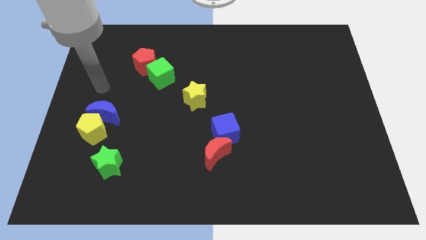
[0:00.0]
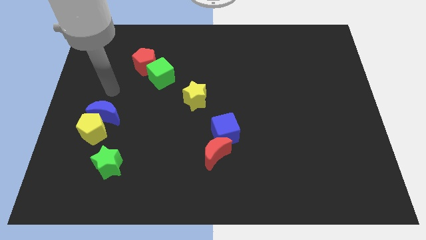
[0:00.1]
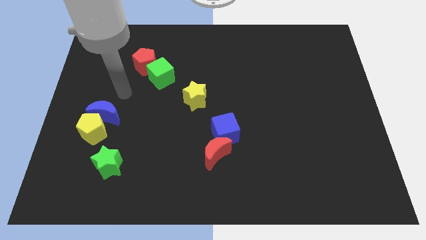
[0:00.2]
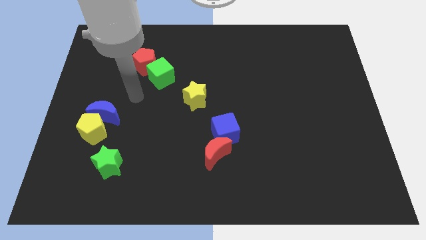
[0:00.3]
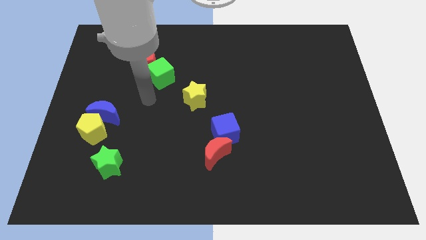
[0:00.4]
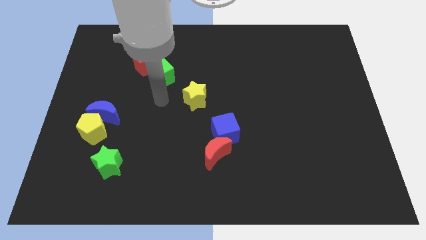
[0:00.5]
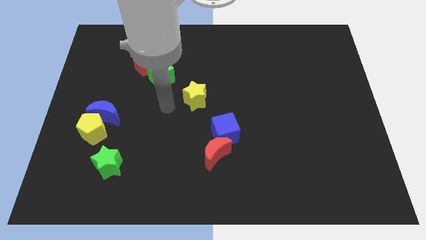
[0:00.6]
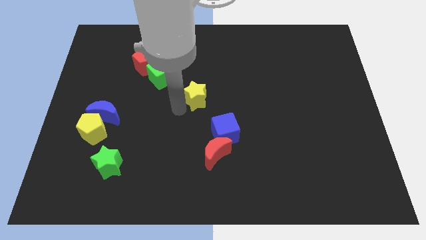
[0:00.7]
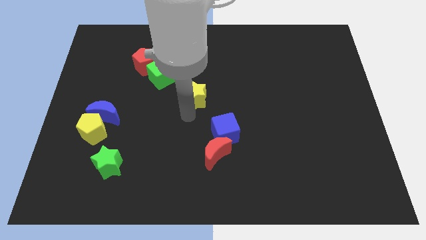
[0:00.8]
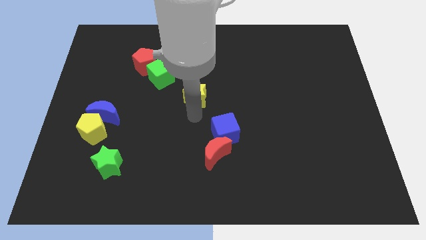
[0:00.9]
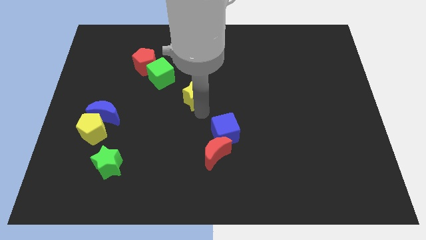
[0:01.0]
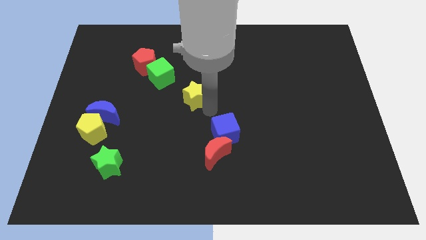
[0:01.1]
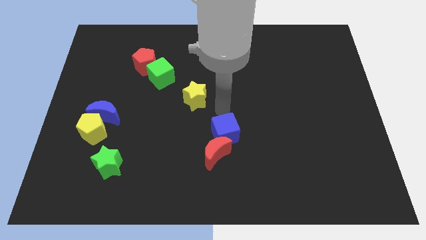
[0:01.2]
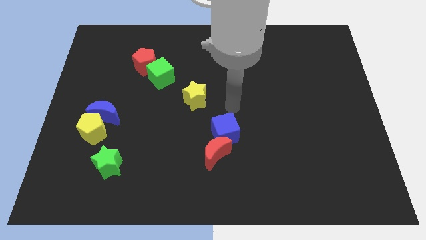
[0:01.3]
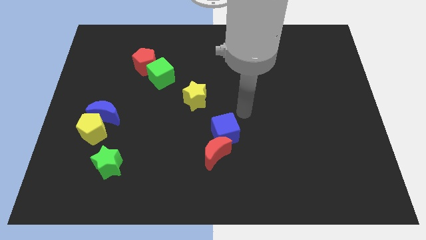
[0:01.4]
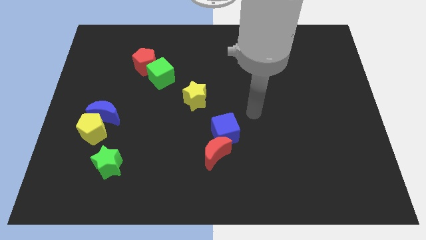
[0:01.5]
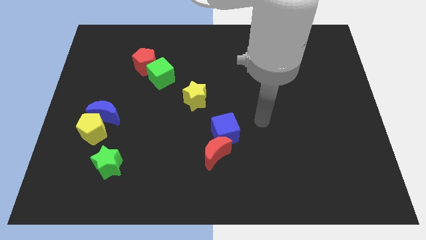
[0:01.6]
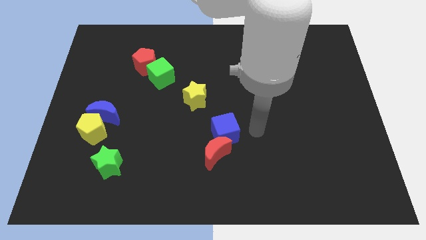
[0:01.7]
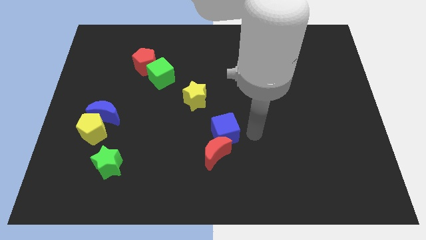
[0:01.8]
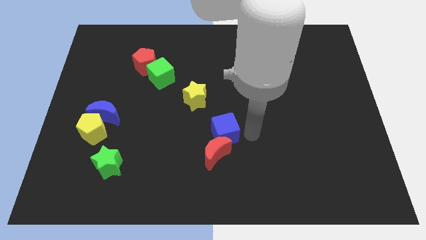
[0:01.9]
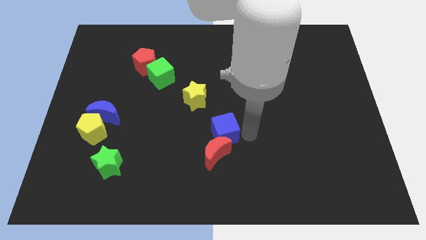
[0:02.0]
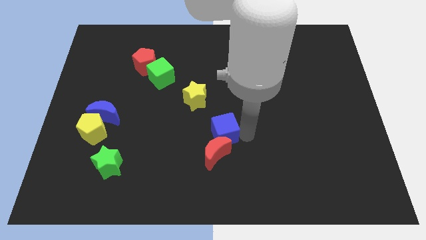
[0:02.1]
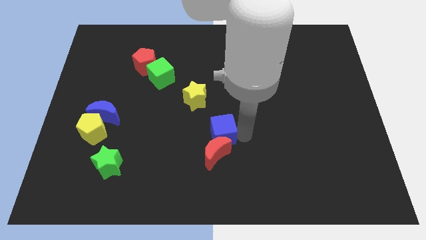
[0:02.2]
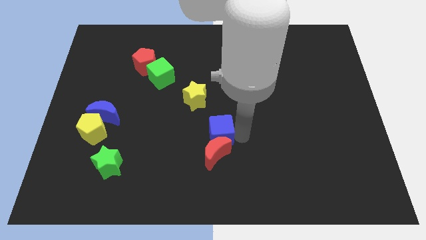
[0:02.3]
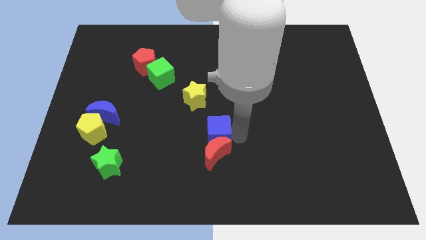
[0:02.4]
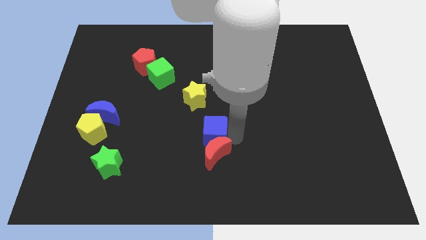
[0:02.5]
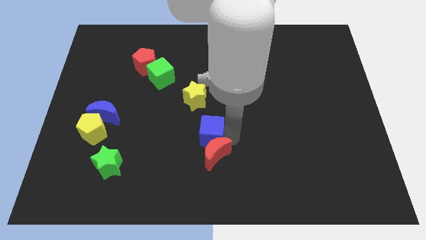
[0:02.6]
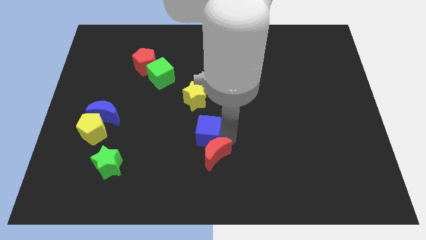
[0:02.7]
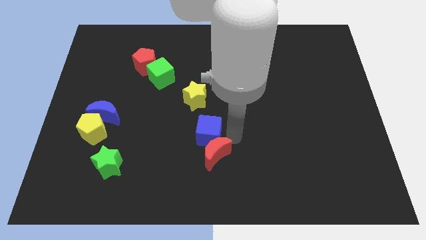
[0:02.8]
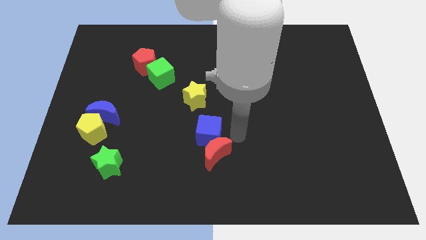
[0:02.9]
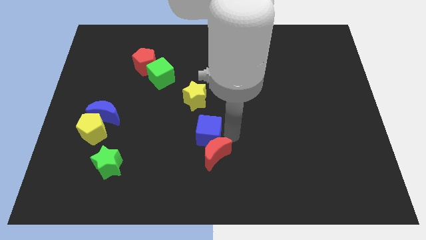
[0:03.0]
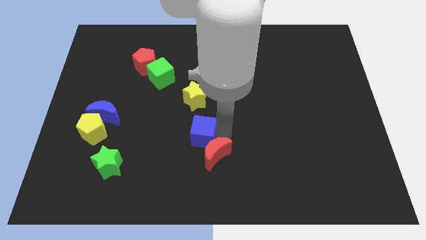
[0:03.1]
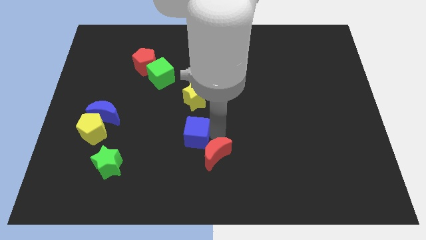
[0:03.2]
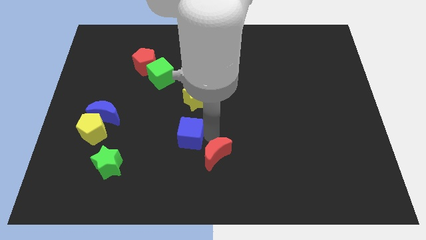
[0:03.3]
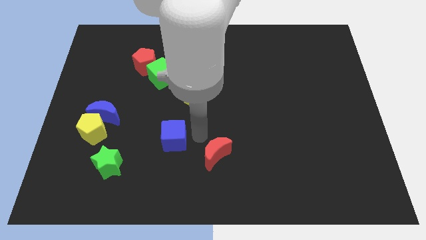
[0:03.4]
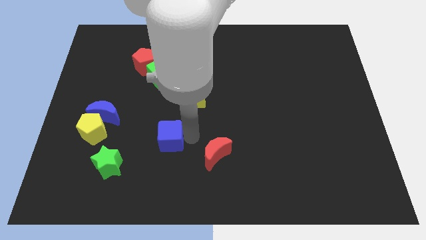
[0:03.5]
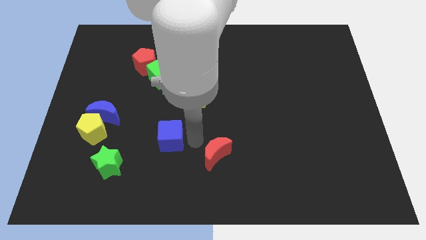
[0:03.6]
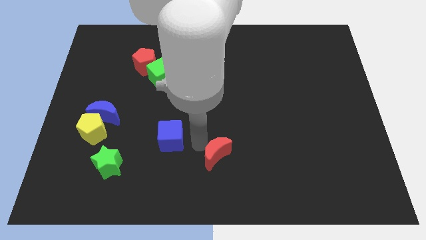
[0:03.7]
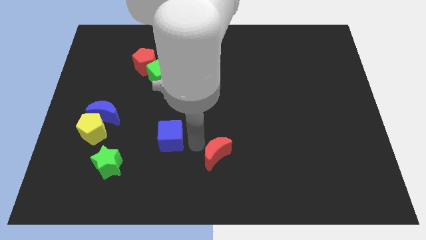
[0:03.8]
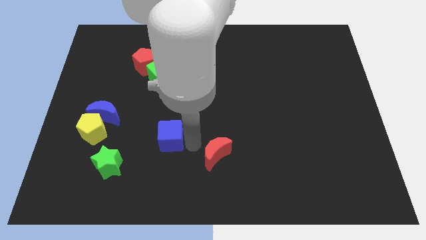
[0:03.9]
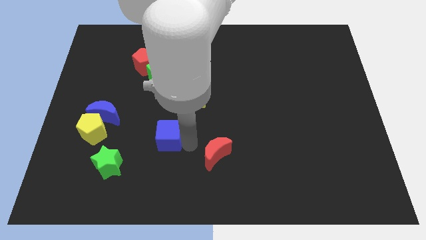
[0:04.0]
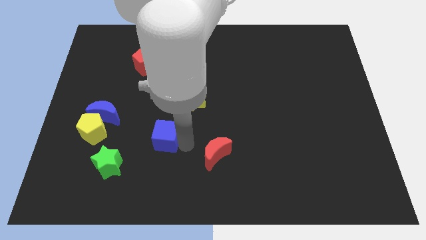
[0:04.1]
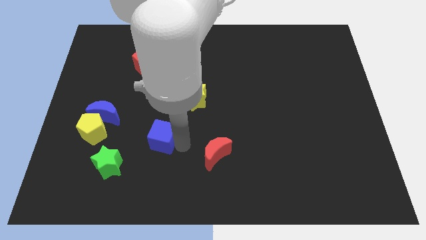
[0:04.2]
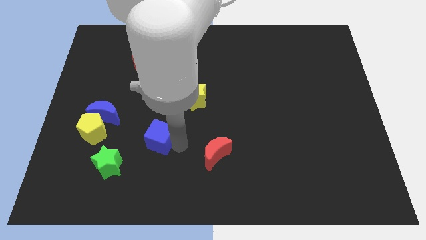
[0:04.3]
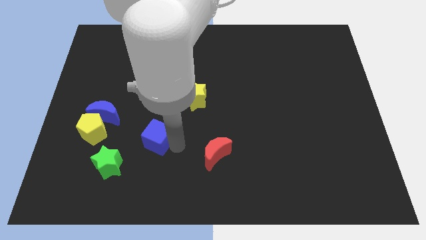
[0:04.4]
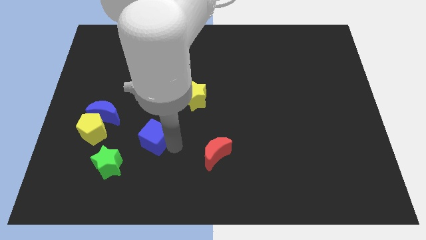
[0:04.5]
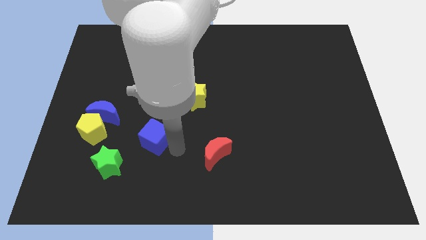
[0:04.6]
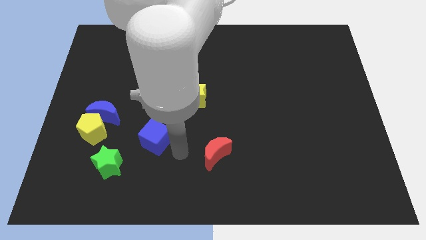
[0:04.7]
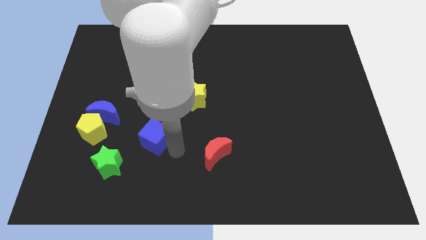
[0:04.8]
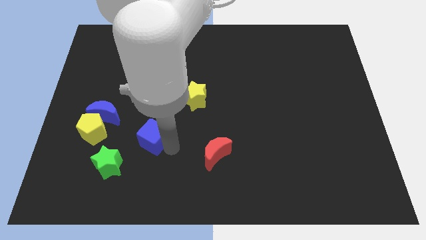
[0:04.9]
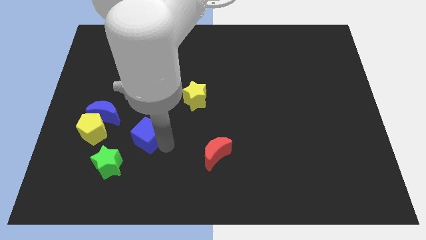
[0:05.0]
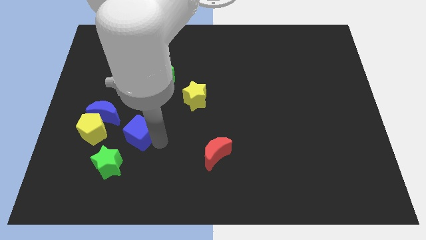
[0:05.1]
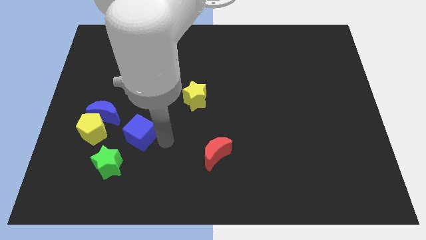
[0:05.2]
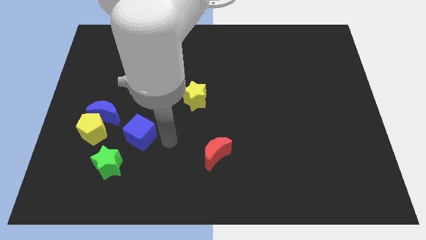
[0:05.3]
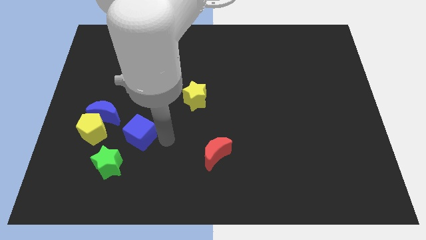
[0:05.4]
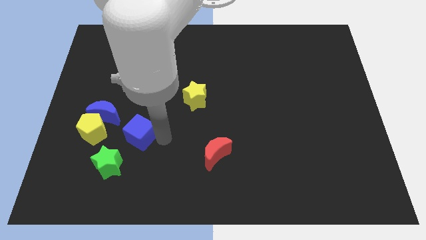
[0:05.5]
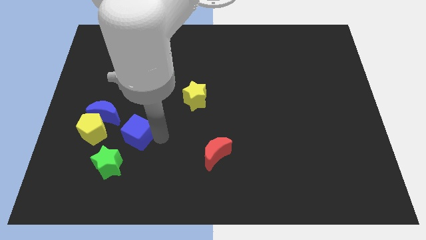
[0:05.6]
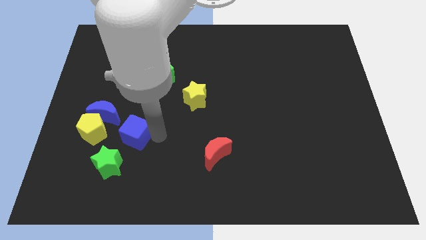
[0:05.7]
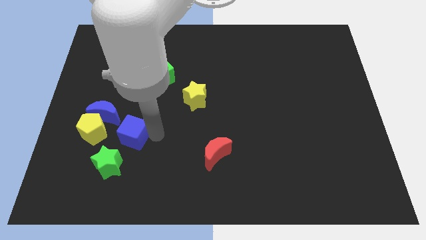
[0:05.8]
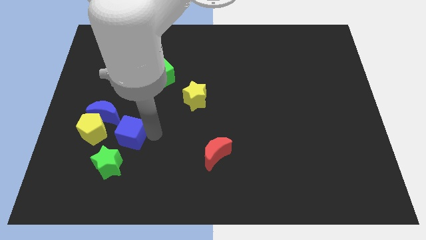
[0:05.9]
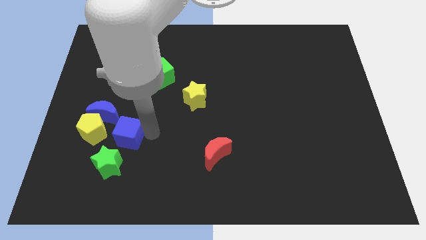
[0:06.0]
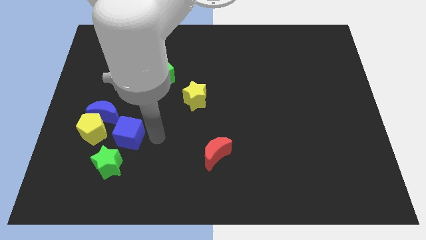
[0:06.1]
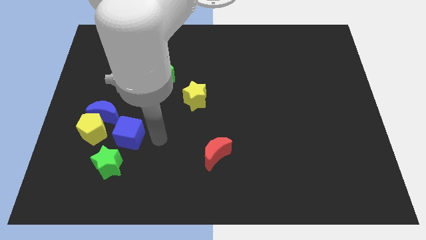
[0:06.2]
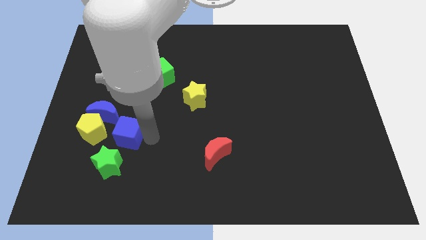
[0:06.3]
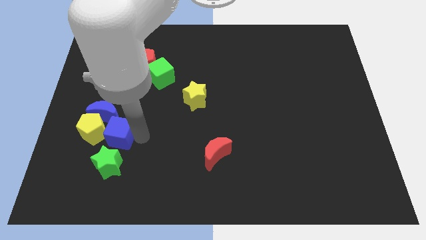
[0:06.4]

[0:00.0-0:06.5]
put the blue cube next to the yellow pentagon
